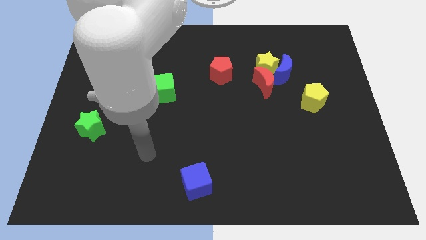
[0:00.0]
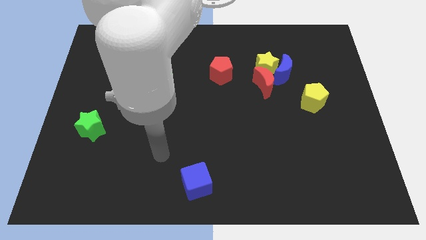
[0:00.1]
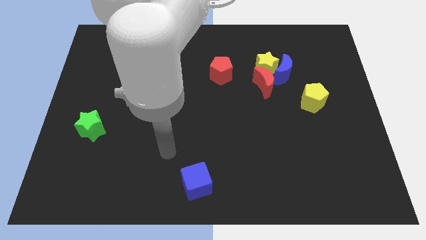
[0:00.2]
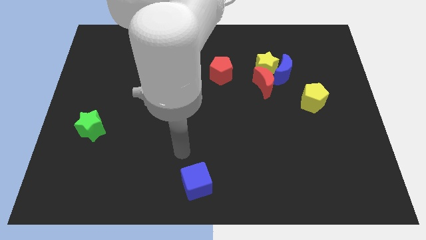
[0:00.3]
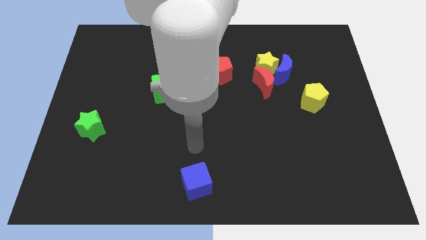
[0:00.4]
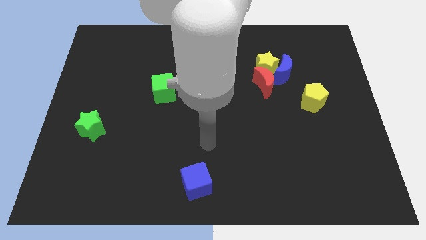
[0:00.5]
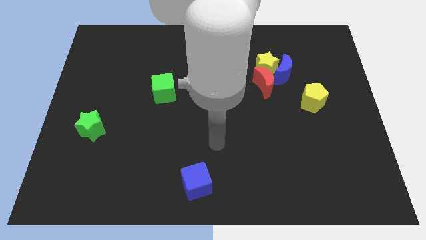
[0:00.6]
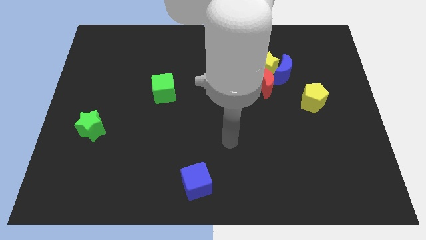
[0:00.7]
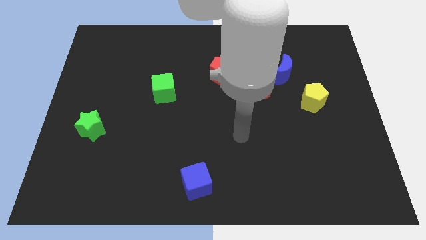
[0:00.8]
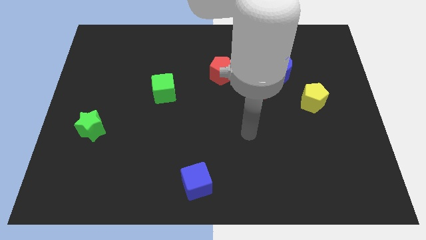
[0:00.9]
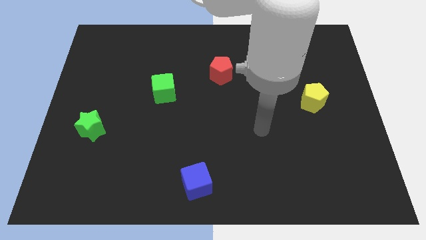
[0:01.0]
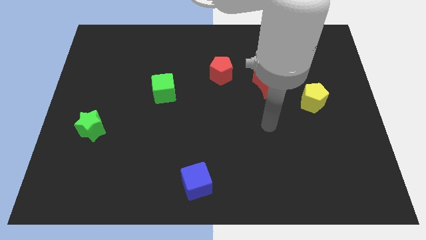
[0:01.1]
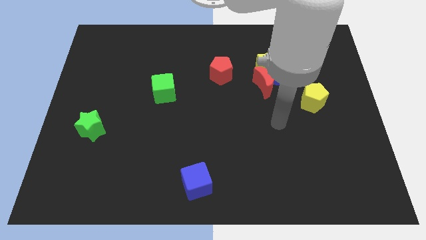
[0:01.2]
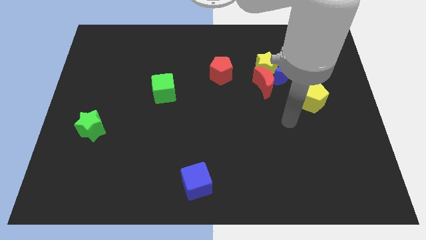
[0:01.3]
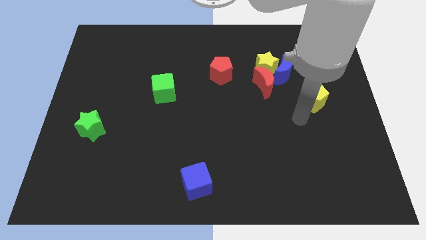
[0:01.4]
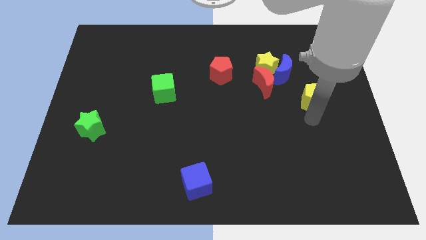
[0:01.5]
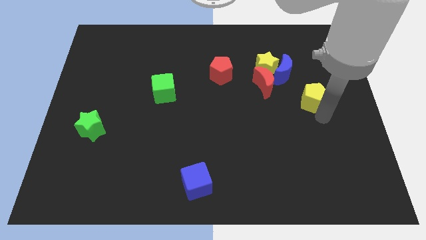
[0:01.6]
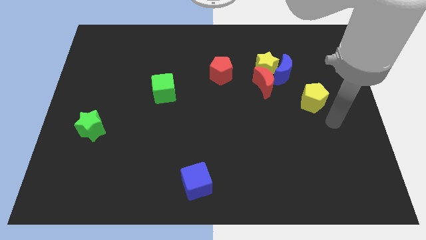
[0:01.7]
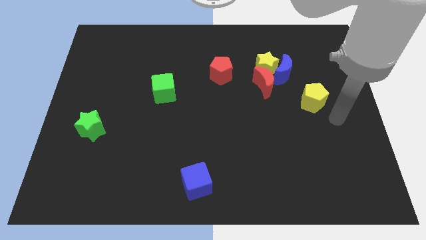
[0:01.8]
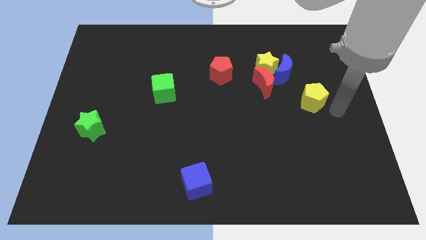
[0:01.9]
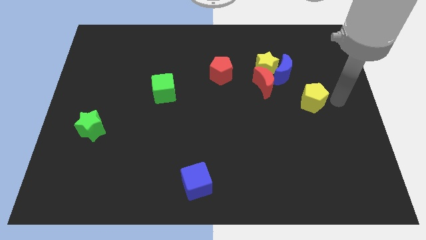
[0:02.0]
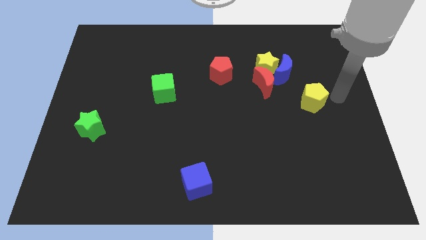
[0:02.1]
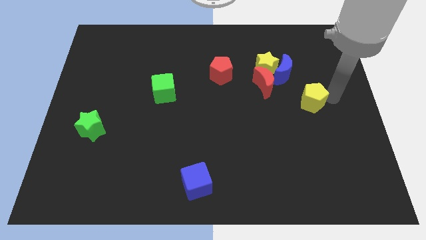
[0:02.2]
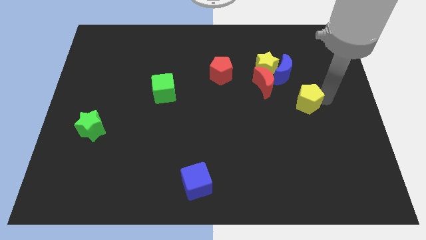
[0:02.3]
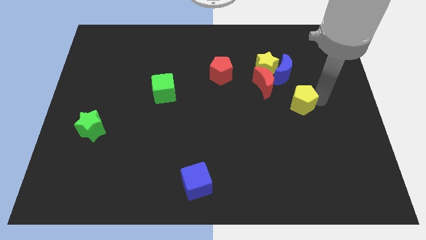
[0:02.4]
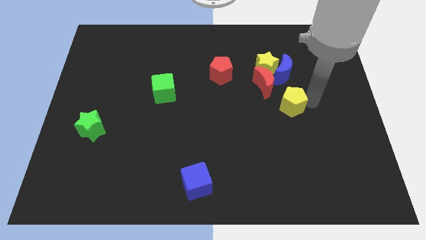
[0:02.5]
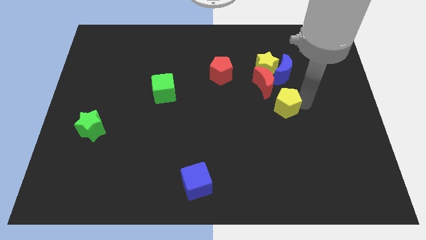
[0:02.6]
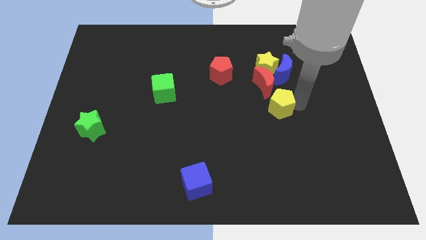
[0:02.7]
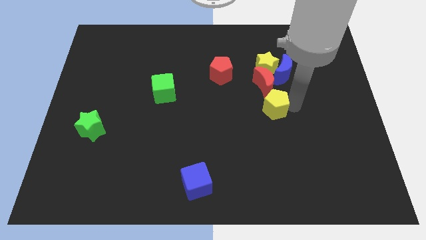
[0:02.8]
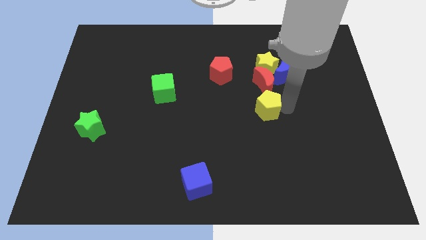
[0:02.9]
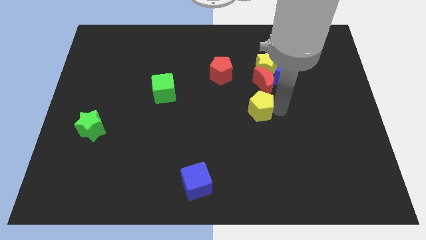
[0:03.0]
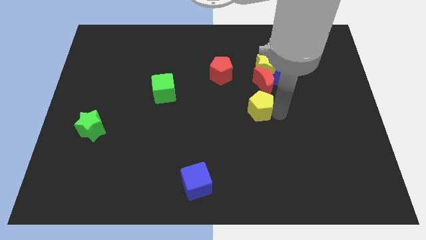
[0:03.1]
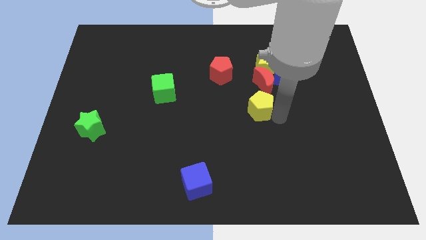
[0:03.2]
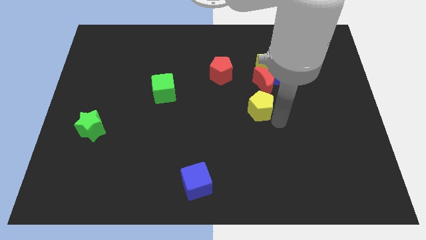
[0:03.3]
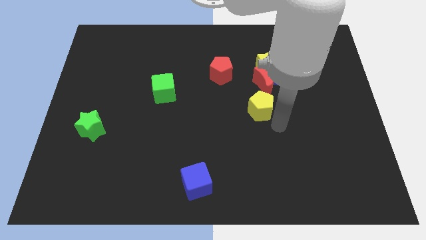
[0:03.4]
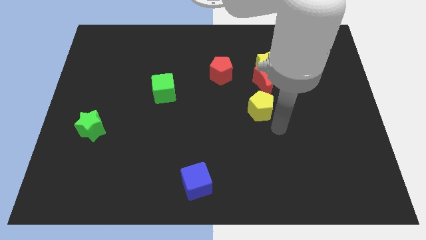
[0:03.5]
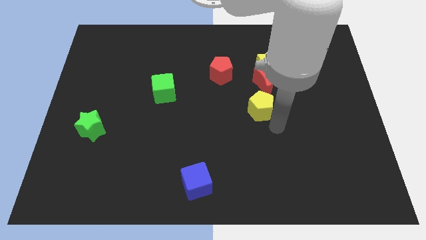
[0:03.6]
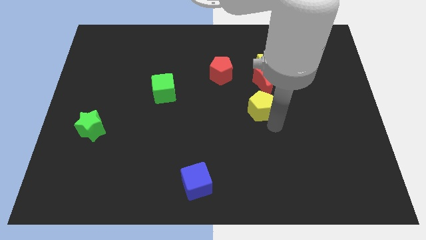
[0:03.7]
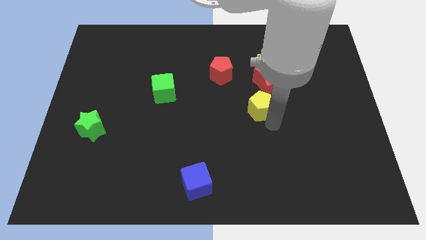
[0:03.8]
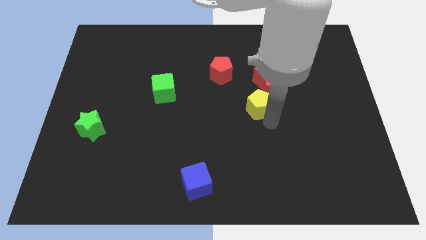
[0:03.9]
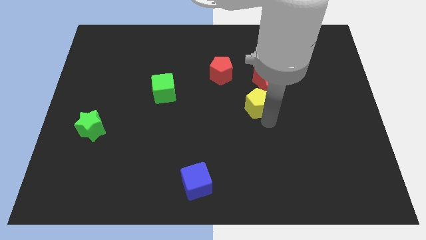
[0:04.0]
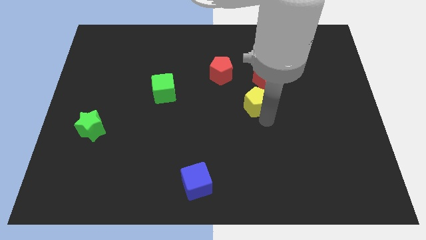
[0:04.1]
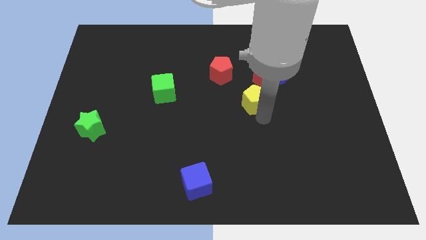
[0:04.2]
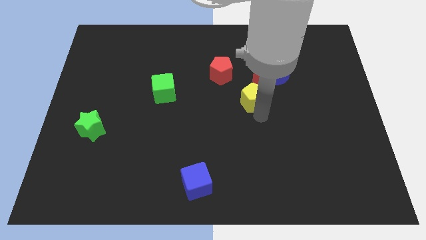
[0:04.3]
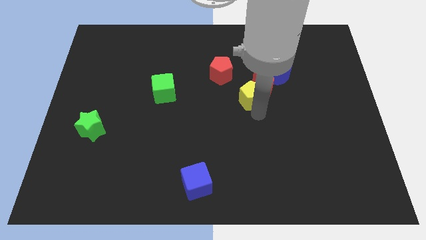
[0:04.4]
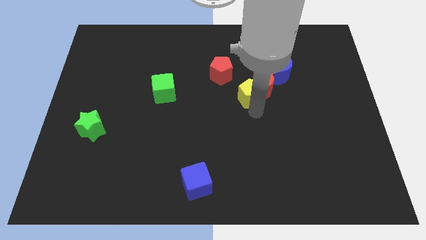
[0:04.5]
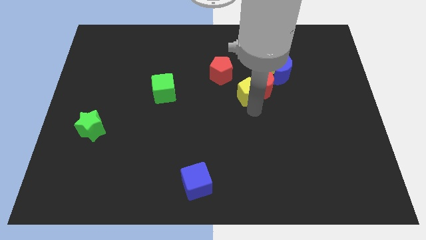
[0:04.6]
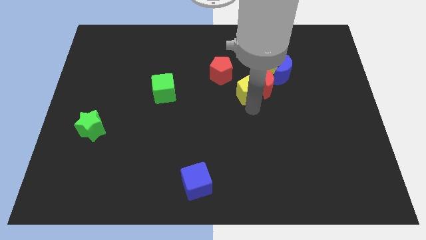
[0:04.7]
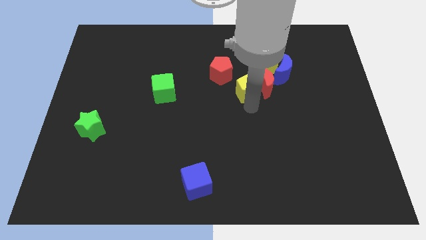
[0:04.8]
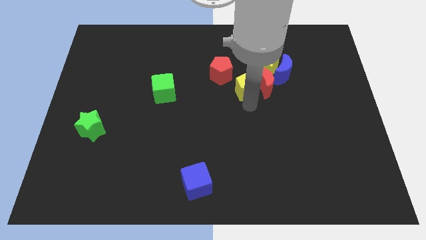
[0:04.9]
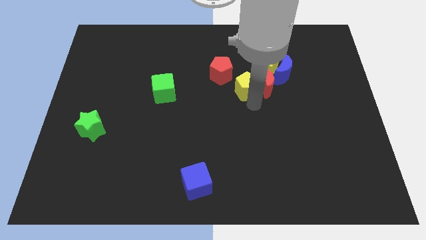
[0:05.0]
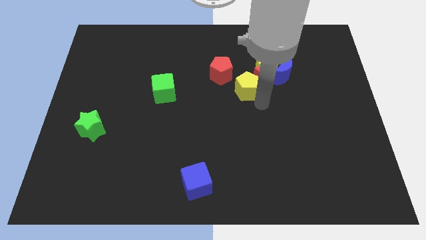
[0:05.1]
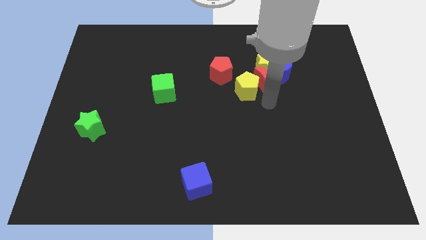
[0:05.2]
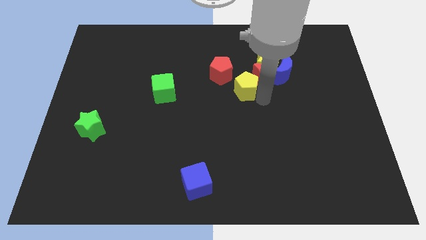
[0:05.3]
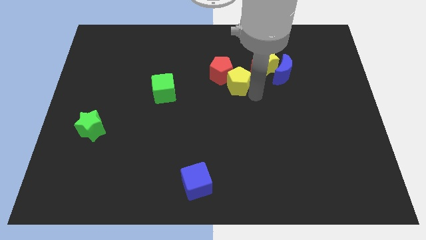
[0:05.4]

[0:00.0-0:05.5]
put the yellow pentagon towards the red pentagon

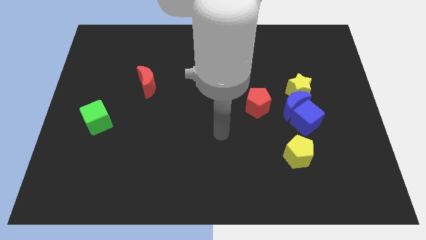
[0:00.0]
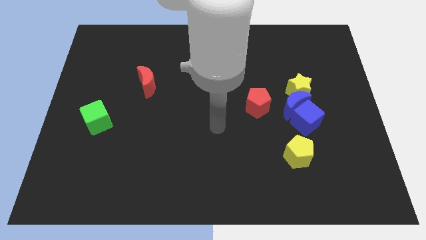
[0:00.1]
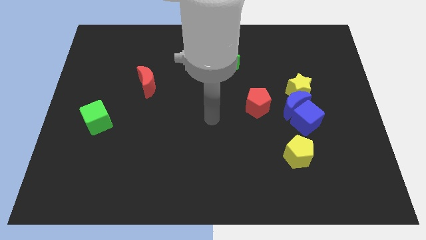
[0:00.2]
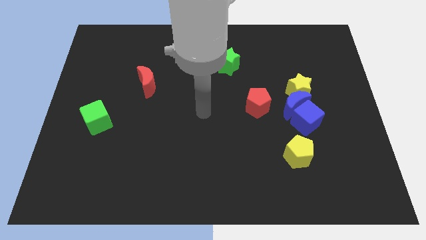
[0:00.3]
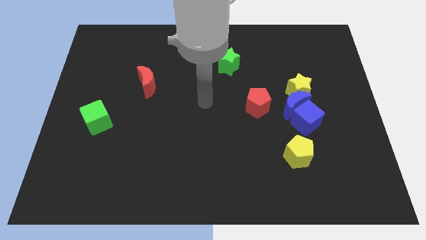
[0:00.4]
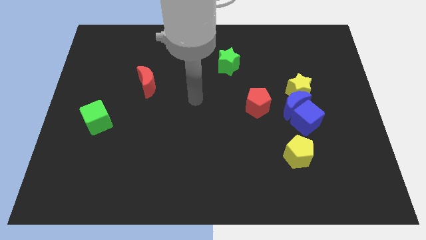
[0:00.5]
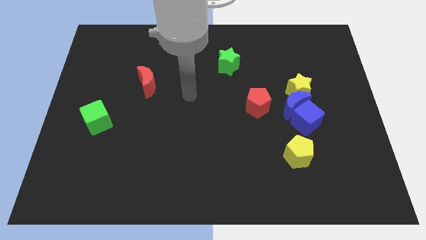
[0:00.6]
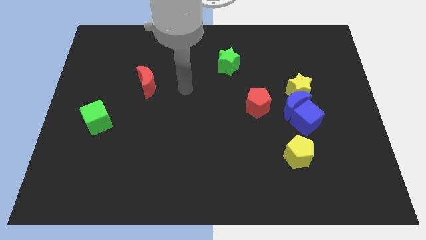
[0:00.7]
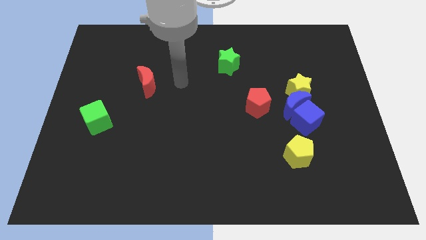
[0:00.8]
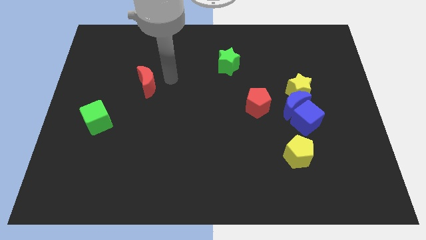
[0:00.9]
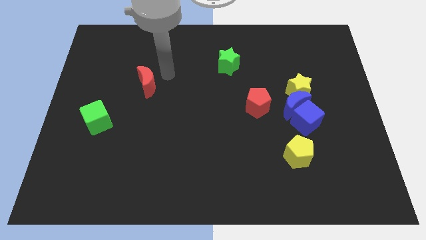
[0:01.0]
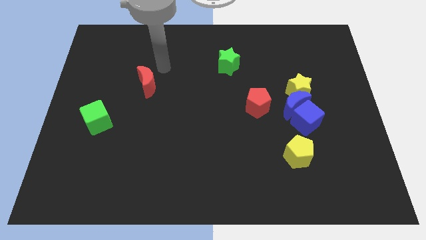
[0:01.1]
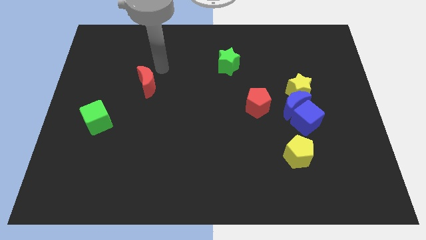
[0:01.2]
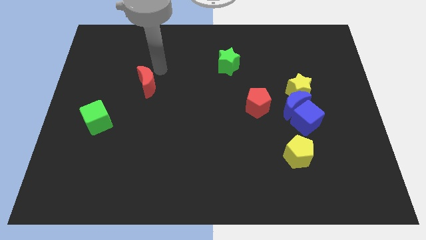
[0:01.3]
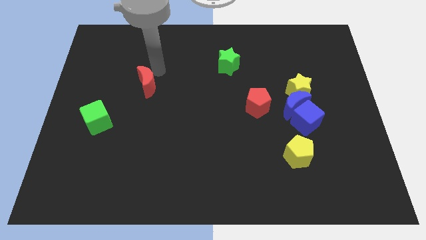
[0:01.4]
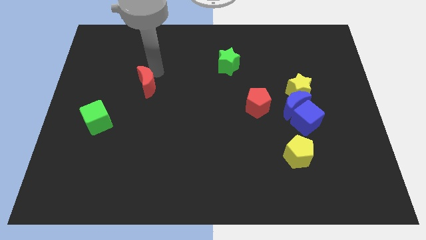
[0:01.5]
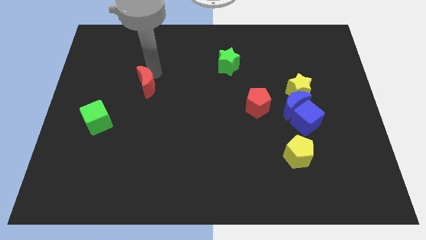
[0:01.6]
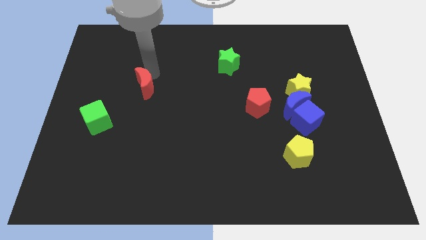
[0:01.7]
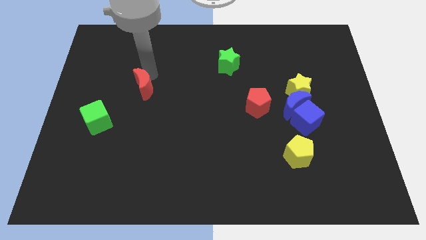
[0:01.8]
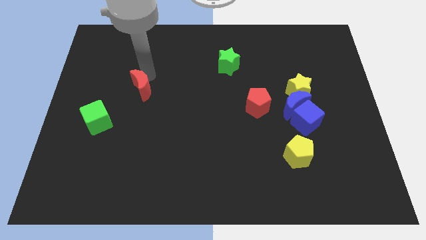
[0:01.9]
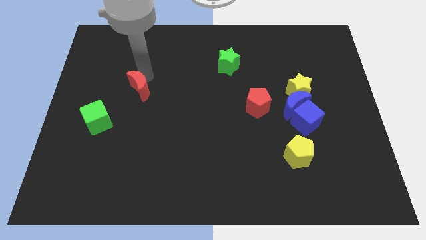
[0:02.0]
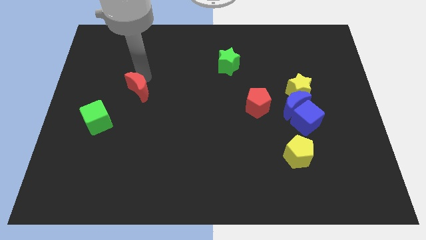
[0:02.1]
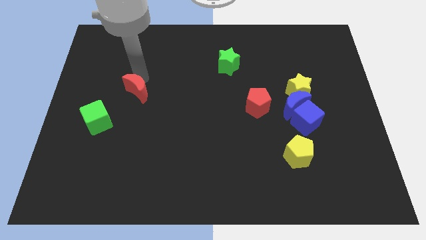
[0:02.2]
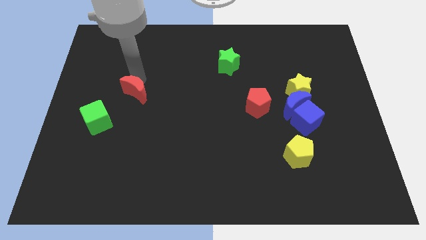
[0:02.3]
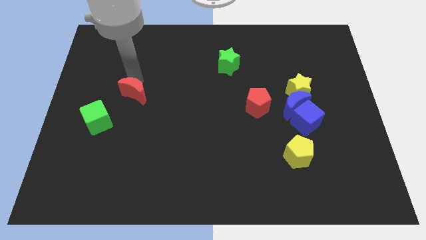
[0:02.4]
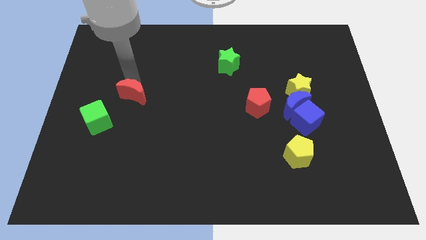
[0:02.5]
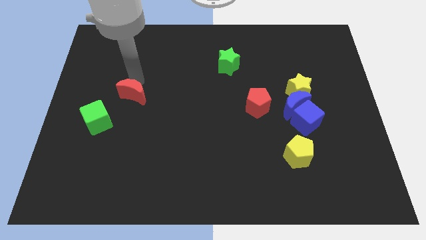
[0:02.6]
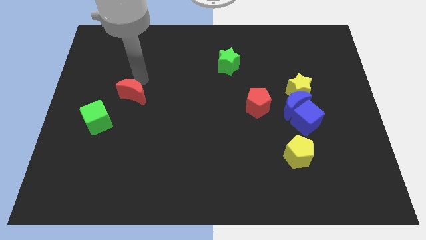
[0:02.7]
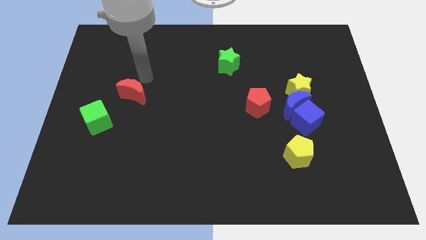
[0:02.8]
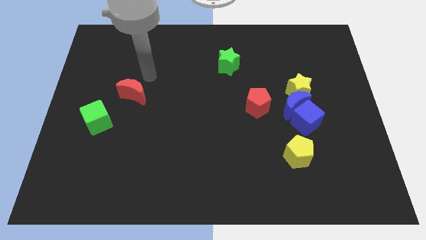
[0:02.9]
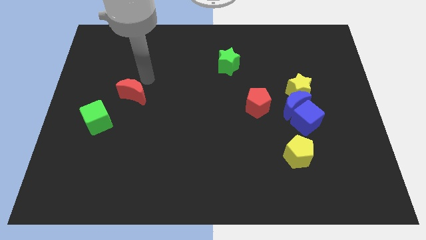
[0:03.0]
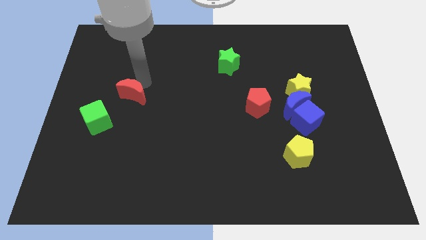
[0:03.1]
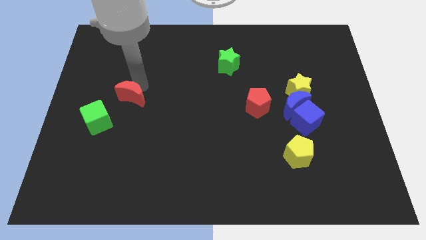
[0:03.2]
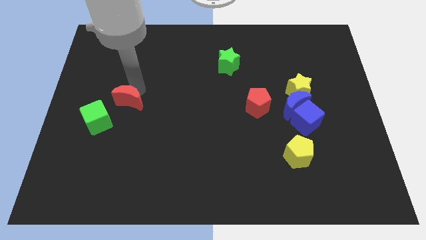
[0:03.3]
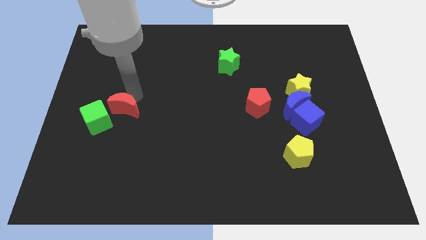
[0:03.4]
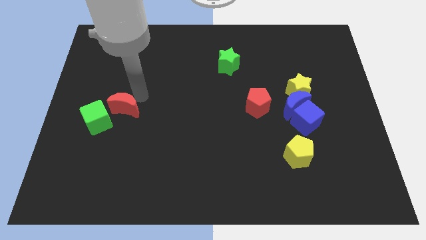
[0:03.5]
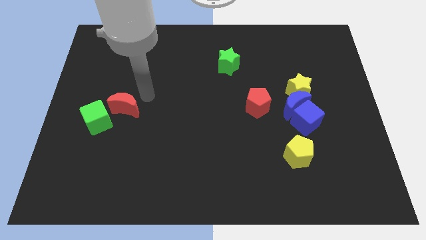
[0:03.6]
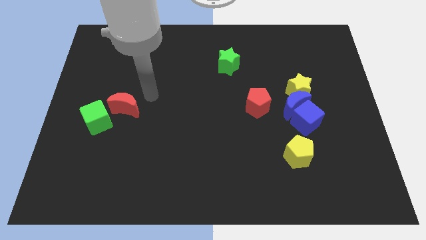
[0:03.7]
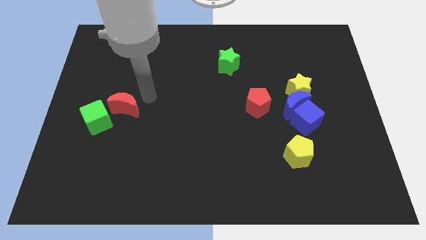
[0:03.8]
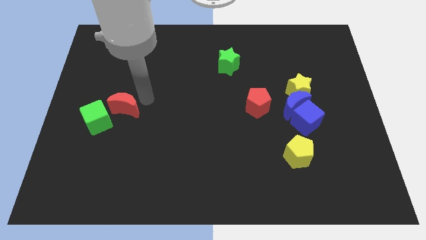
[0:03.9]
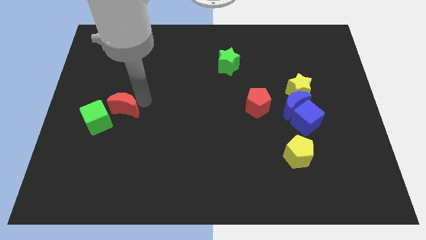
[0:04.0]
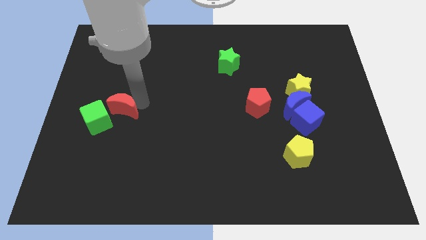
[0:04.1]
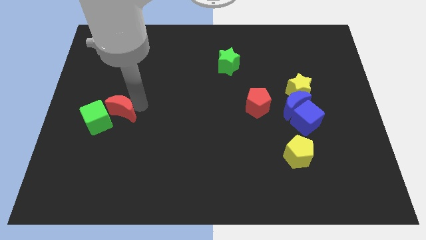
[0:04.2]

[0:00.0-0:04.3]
move the red moon next to the green cube
